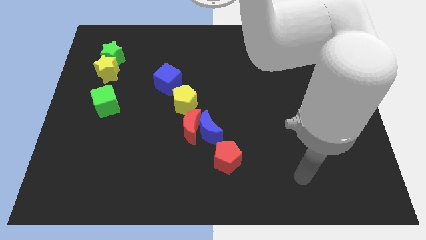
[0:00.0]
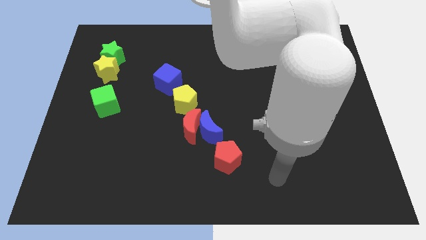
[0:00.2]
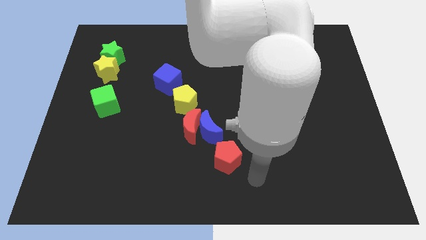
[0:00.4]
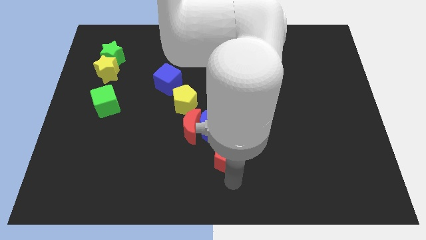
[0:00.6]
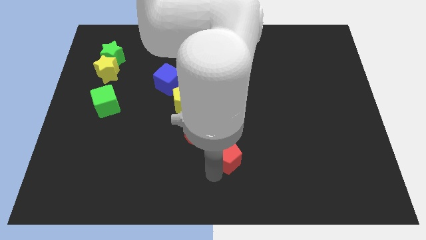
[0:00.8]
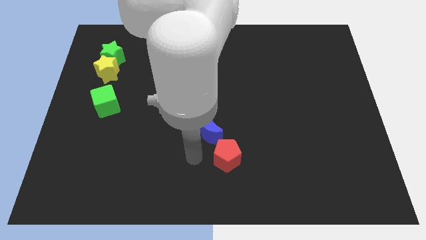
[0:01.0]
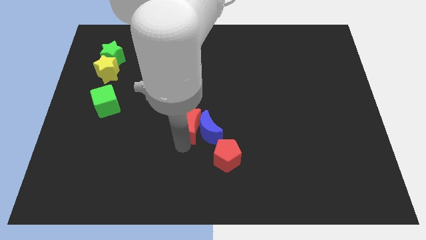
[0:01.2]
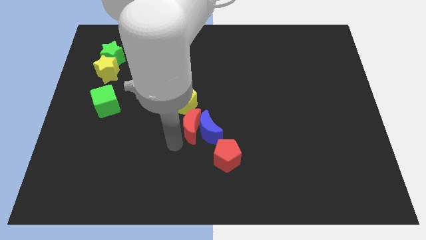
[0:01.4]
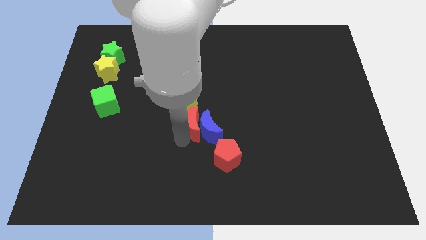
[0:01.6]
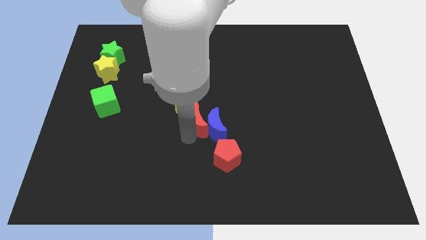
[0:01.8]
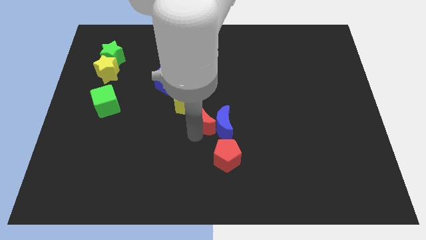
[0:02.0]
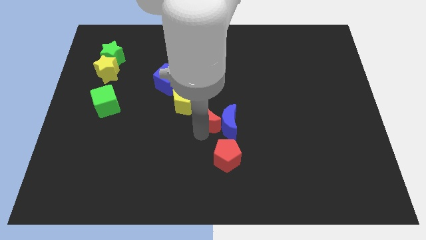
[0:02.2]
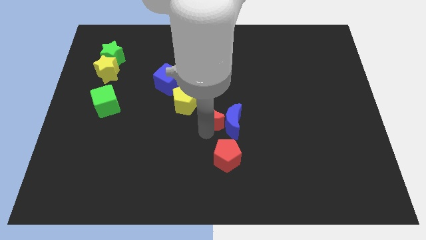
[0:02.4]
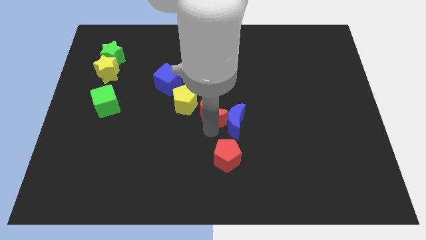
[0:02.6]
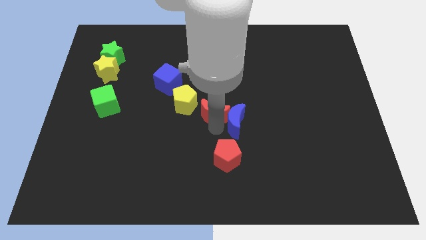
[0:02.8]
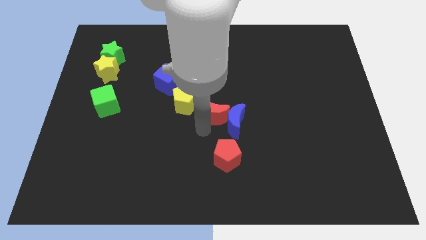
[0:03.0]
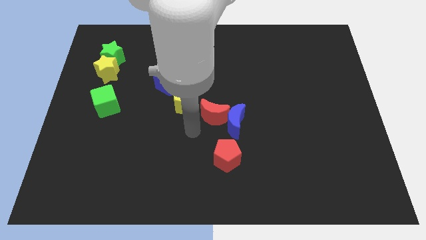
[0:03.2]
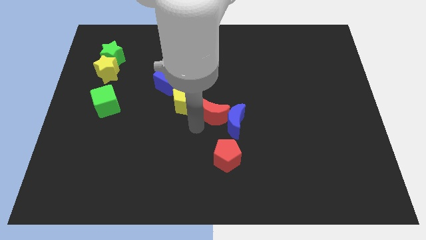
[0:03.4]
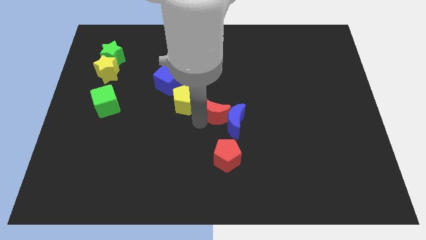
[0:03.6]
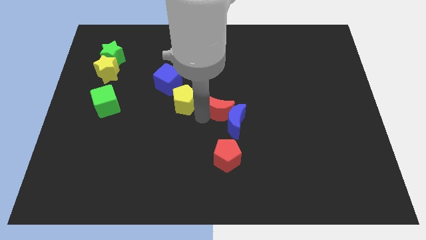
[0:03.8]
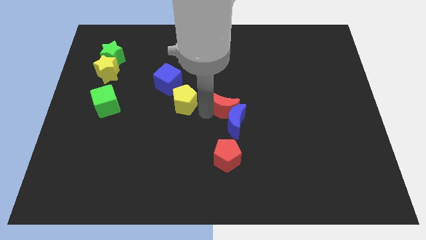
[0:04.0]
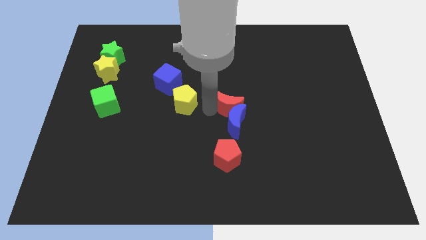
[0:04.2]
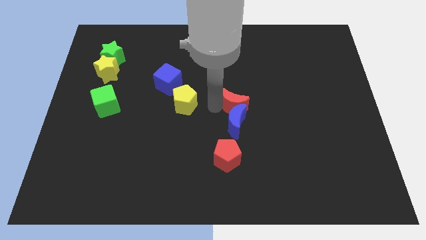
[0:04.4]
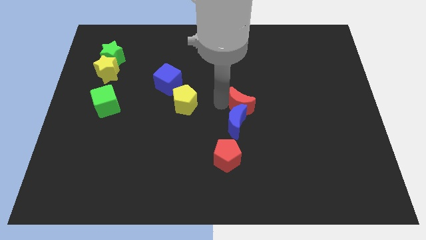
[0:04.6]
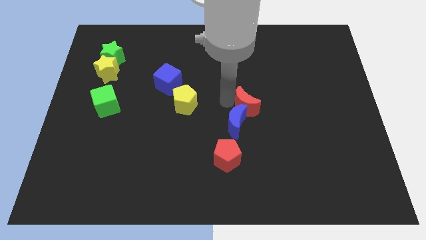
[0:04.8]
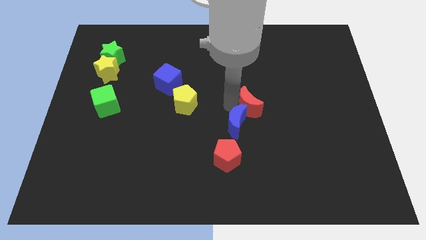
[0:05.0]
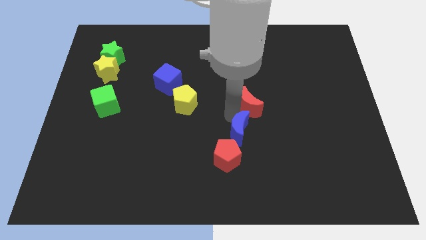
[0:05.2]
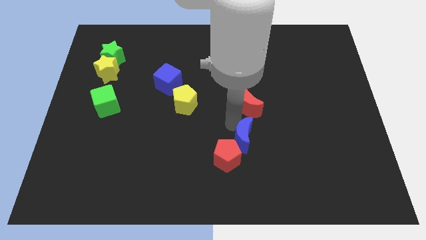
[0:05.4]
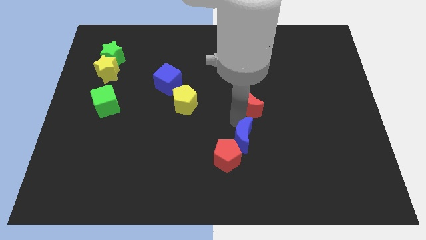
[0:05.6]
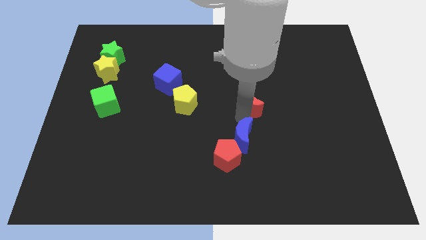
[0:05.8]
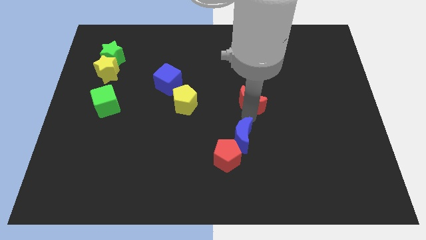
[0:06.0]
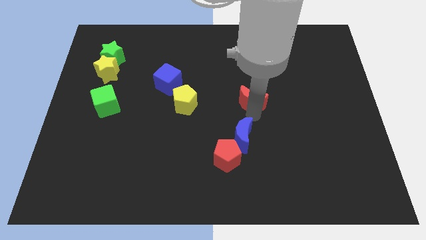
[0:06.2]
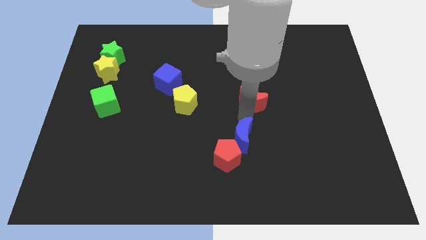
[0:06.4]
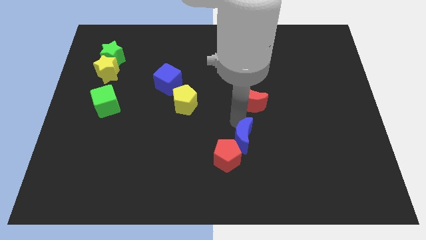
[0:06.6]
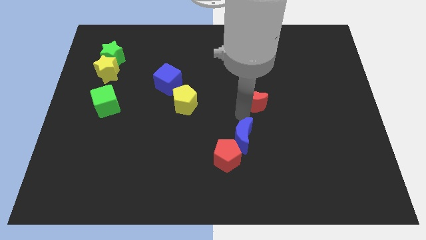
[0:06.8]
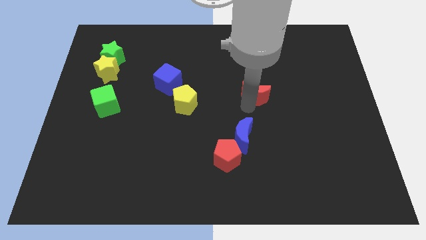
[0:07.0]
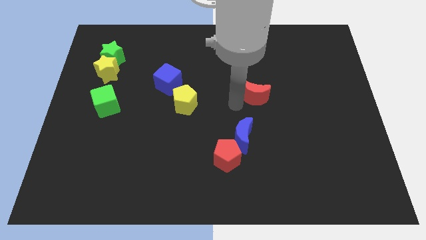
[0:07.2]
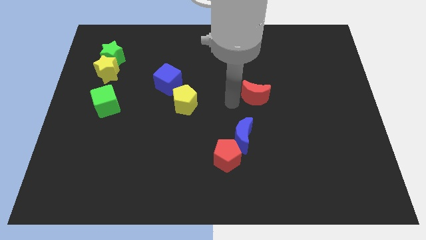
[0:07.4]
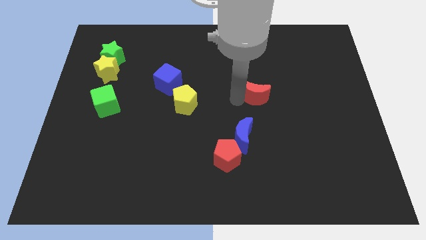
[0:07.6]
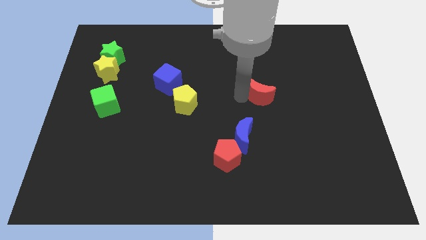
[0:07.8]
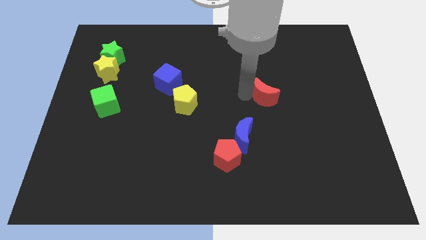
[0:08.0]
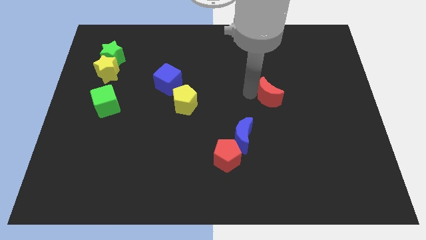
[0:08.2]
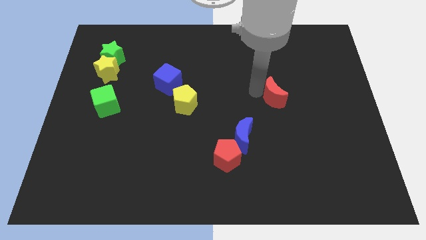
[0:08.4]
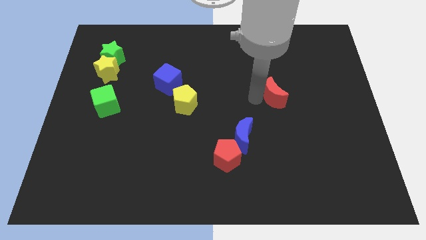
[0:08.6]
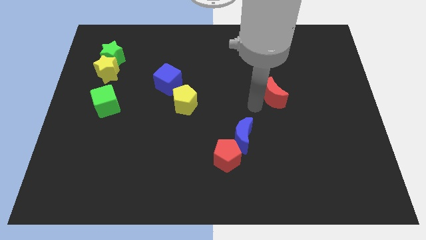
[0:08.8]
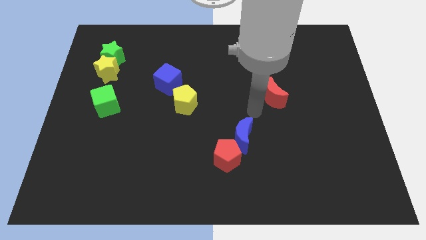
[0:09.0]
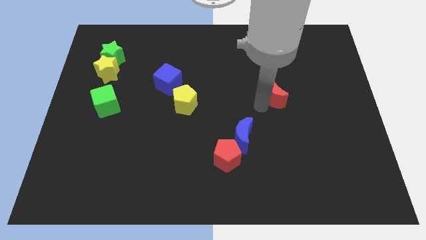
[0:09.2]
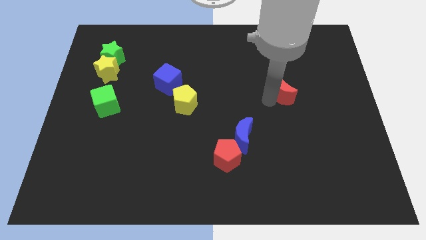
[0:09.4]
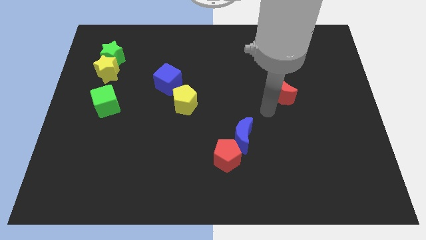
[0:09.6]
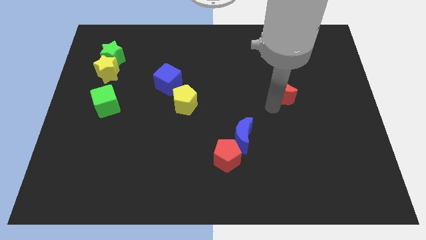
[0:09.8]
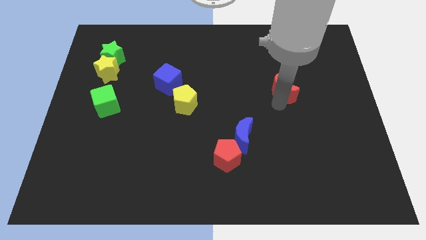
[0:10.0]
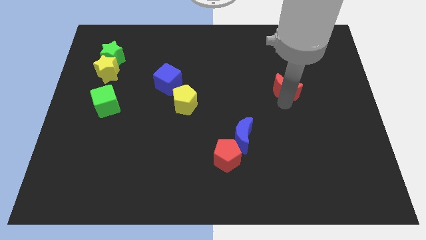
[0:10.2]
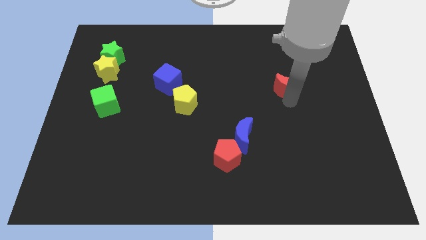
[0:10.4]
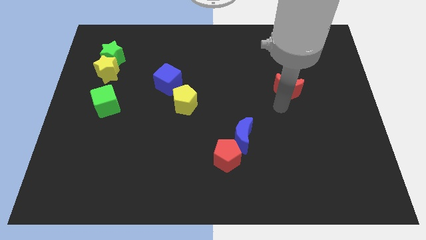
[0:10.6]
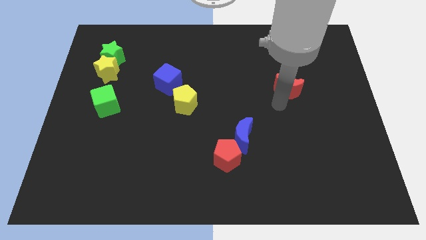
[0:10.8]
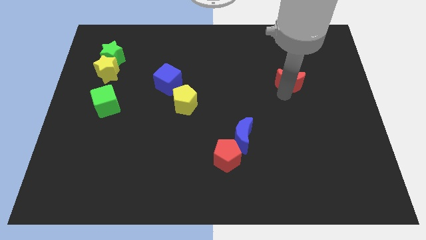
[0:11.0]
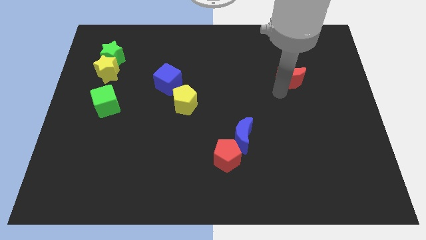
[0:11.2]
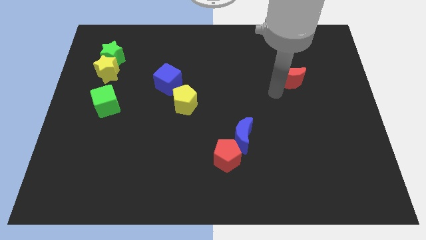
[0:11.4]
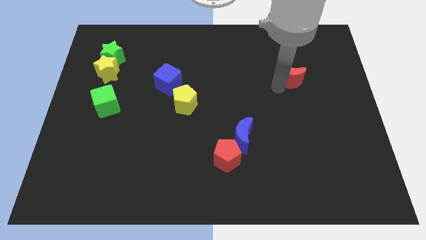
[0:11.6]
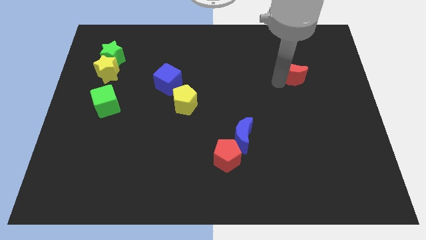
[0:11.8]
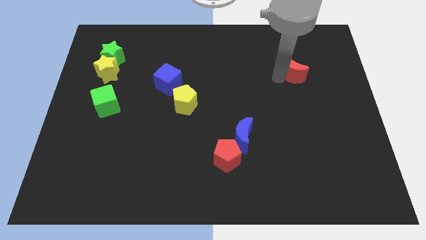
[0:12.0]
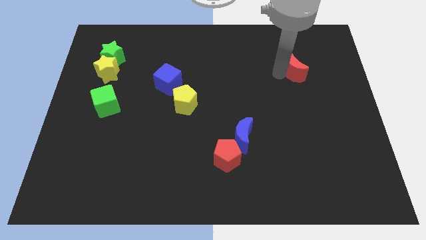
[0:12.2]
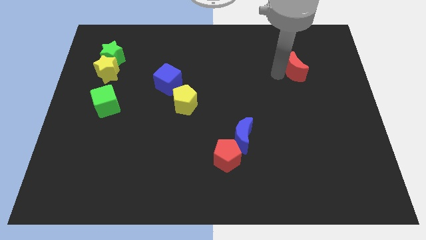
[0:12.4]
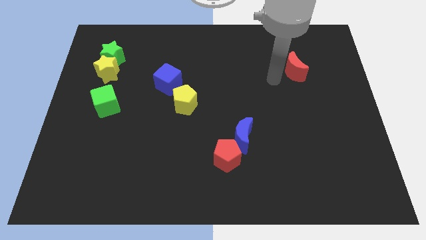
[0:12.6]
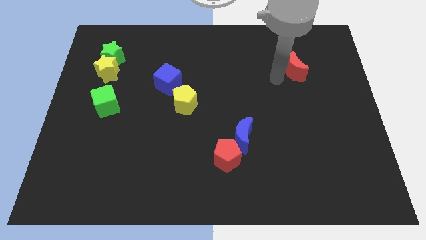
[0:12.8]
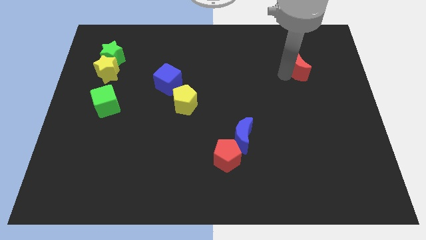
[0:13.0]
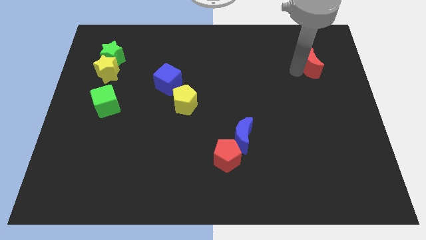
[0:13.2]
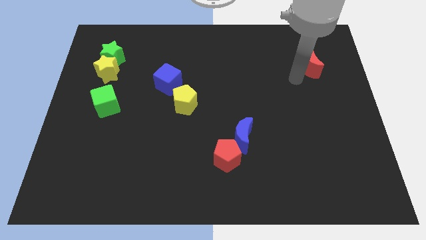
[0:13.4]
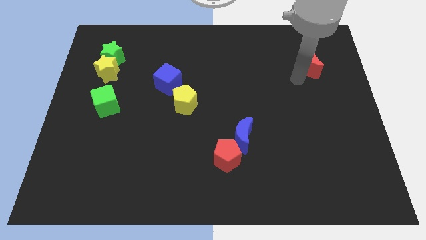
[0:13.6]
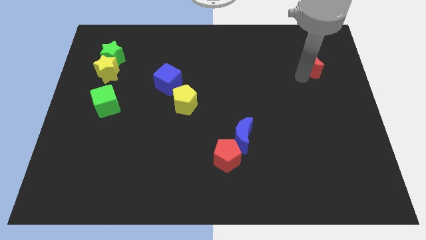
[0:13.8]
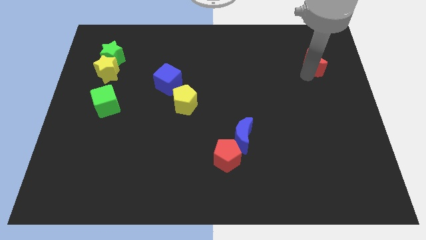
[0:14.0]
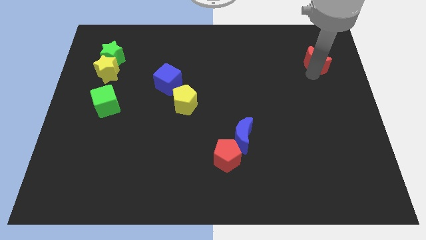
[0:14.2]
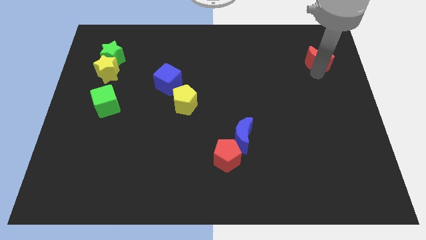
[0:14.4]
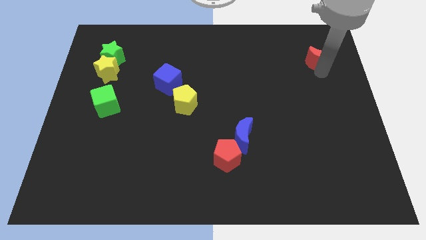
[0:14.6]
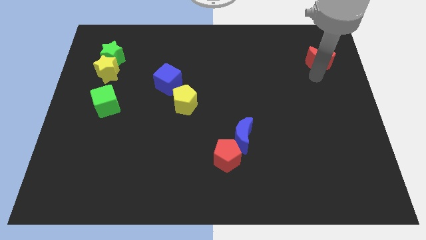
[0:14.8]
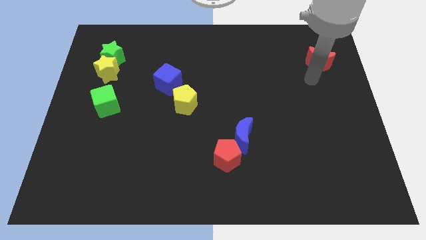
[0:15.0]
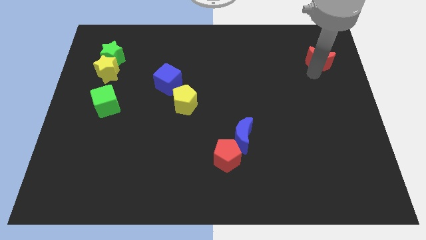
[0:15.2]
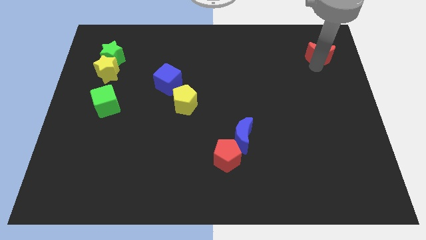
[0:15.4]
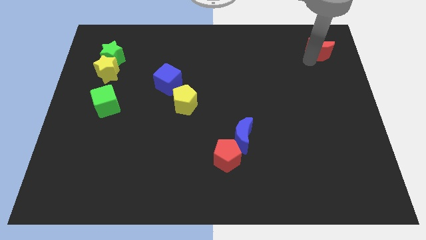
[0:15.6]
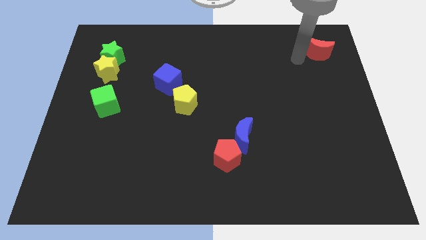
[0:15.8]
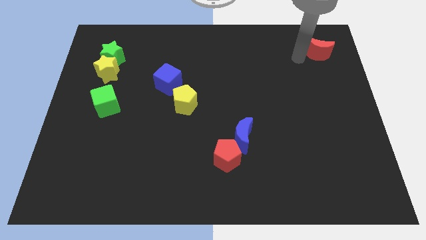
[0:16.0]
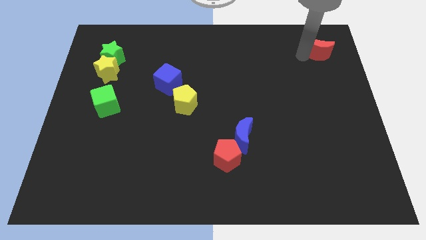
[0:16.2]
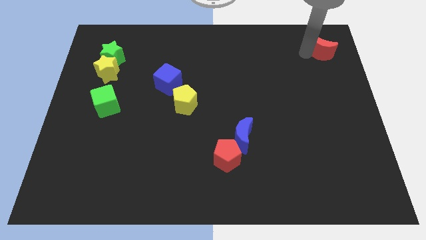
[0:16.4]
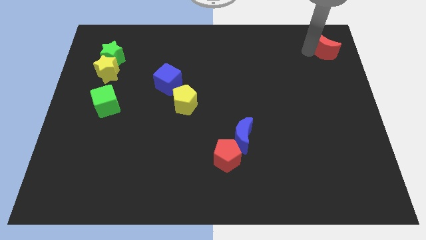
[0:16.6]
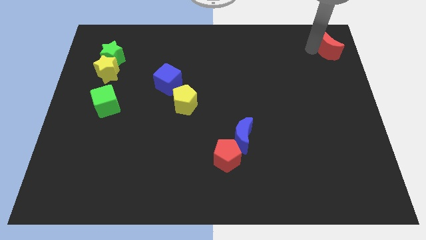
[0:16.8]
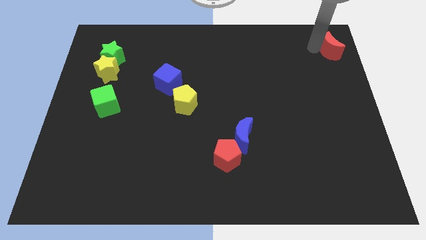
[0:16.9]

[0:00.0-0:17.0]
move the red moon to the top right corner
